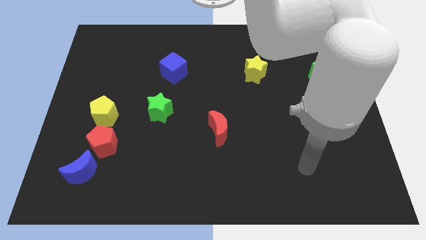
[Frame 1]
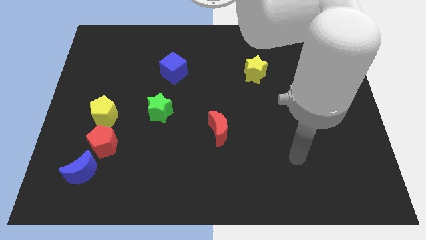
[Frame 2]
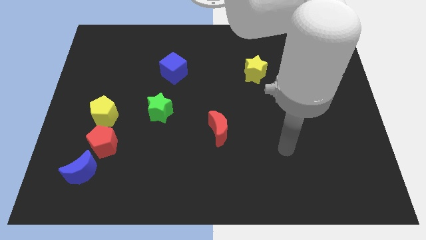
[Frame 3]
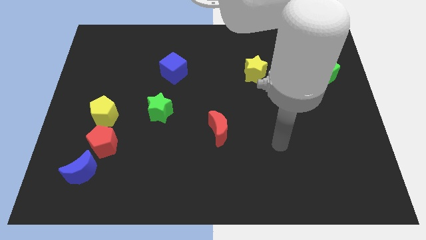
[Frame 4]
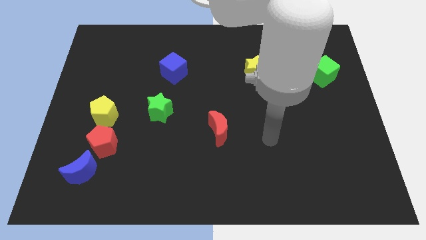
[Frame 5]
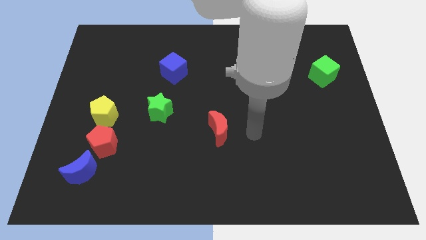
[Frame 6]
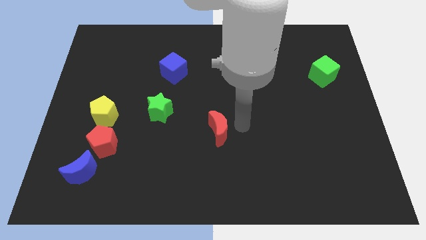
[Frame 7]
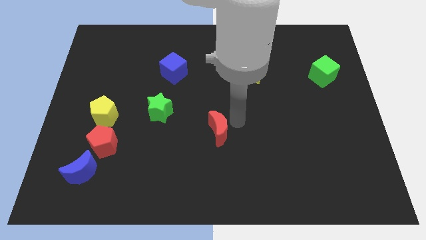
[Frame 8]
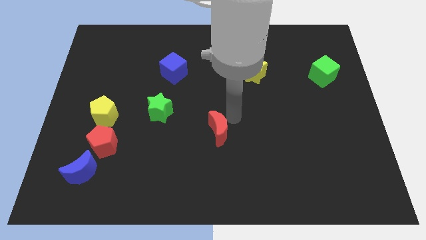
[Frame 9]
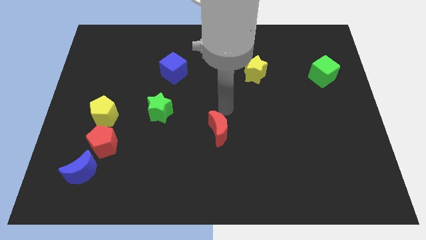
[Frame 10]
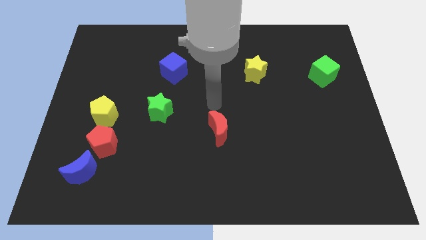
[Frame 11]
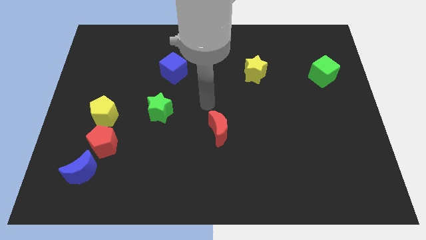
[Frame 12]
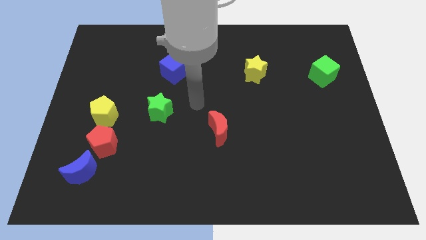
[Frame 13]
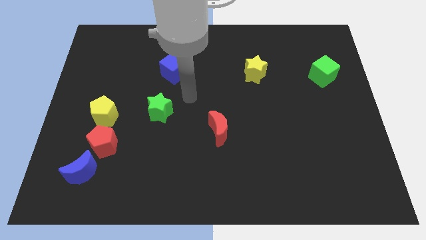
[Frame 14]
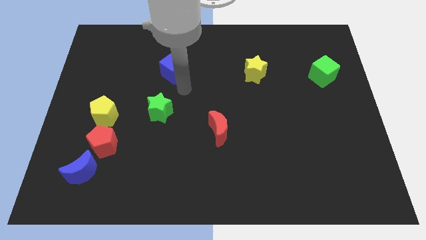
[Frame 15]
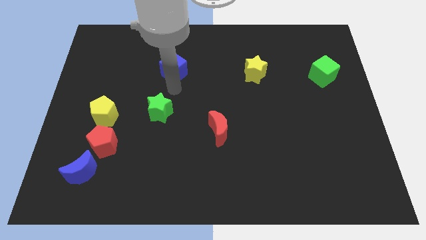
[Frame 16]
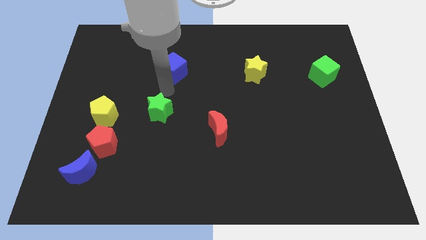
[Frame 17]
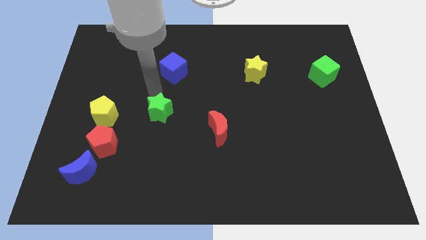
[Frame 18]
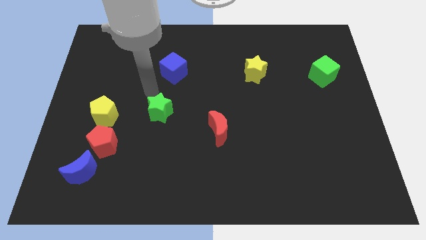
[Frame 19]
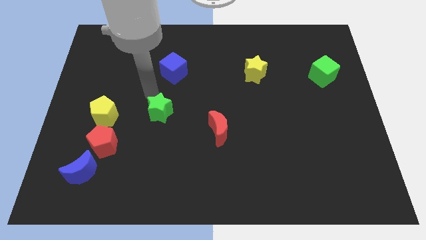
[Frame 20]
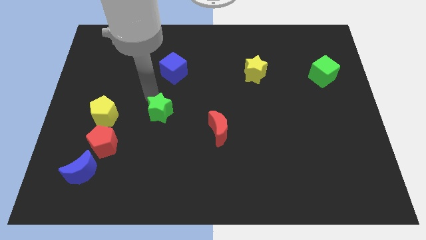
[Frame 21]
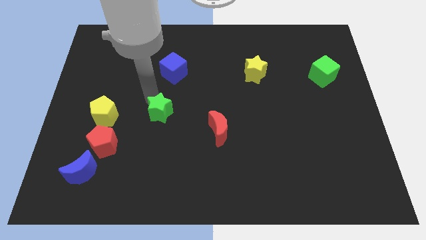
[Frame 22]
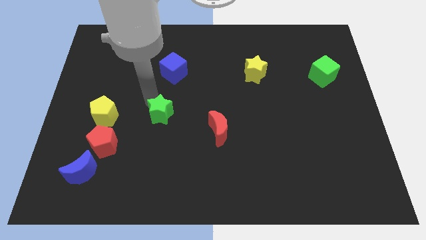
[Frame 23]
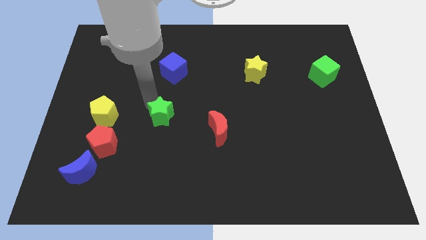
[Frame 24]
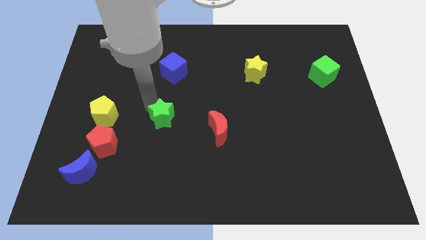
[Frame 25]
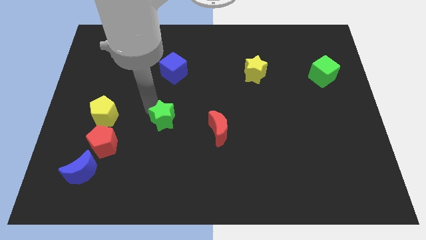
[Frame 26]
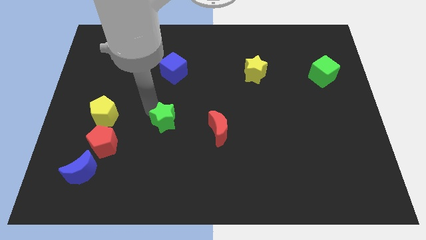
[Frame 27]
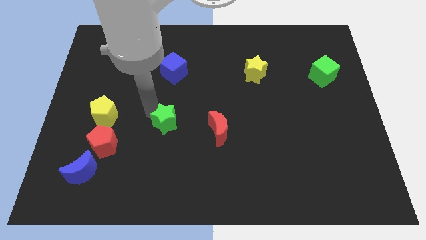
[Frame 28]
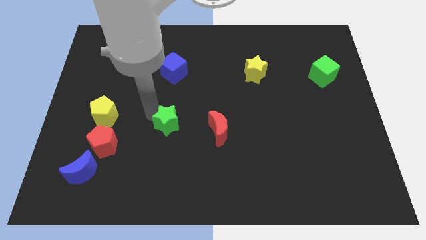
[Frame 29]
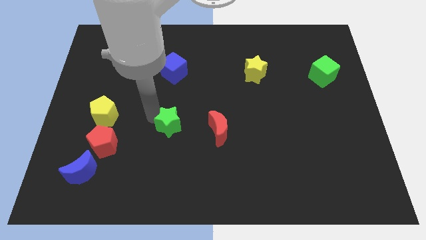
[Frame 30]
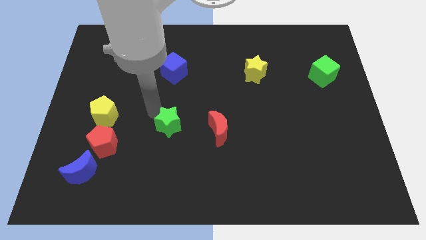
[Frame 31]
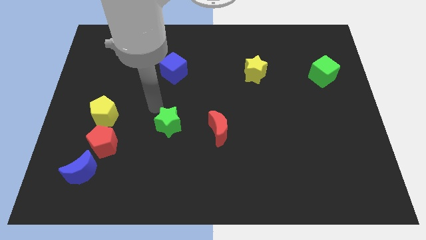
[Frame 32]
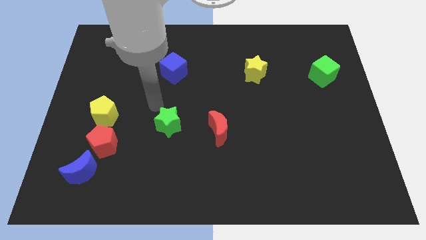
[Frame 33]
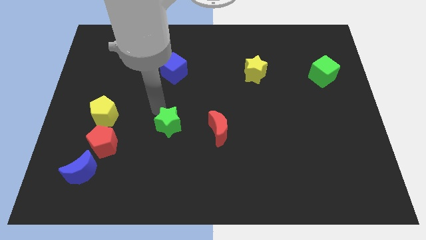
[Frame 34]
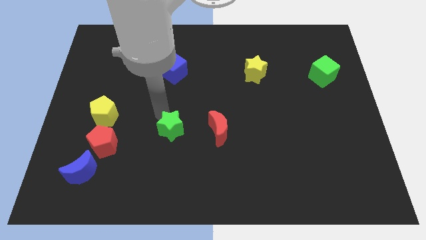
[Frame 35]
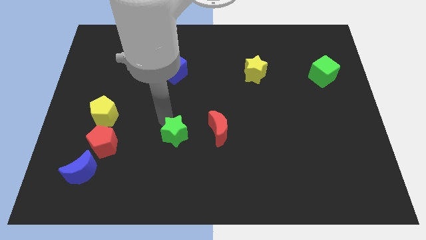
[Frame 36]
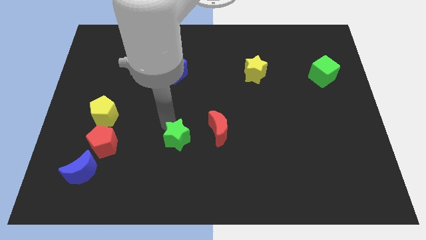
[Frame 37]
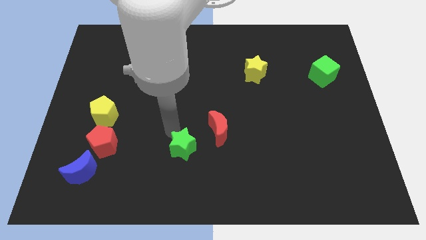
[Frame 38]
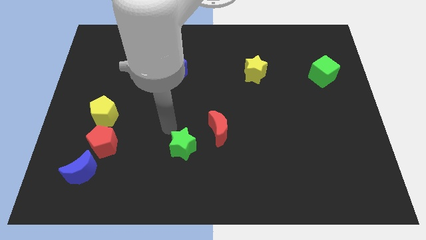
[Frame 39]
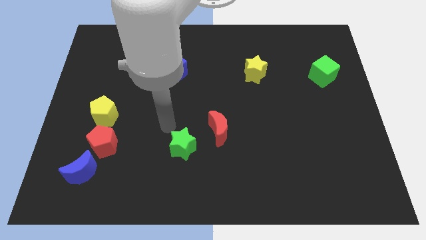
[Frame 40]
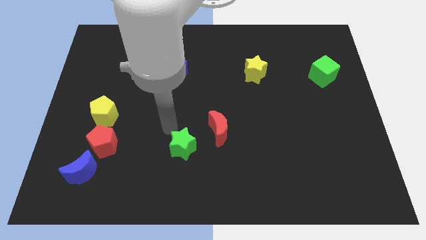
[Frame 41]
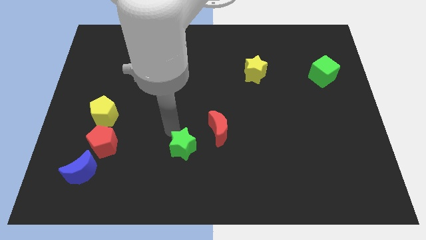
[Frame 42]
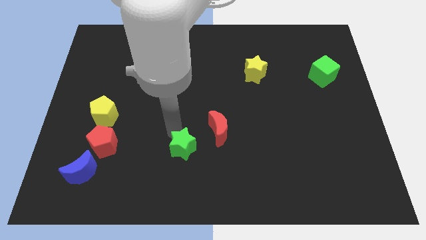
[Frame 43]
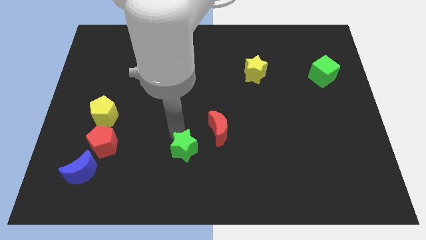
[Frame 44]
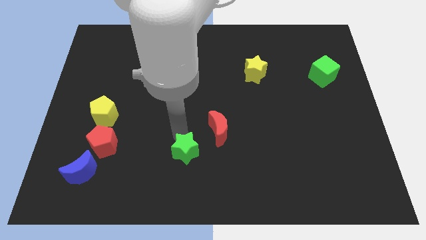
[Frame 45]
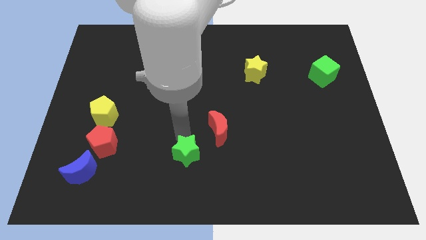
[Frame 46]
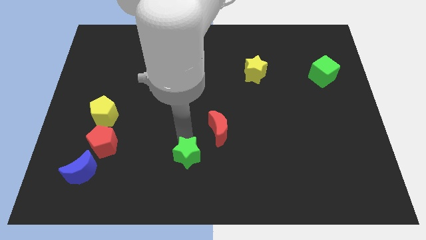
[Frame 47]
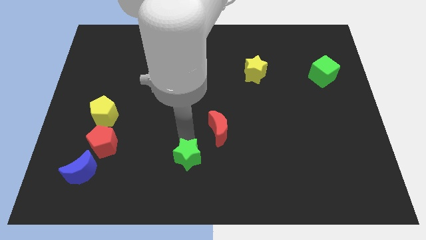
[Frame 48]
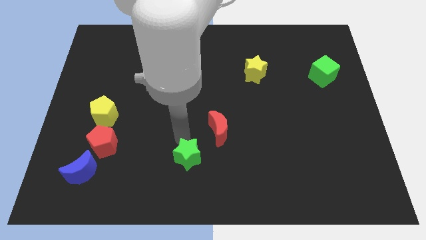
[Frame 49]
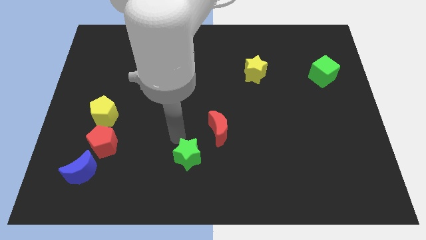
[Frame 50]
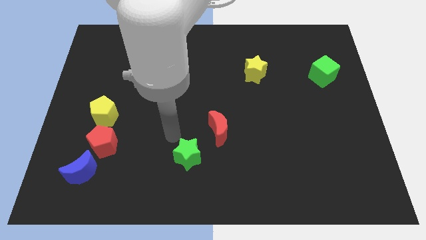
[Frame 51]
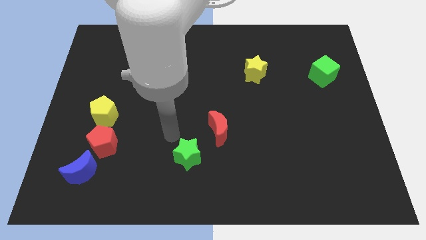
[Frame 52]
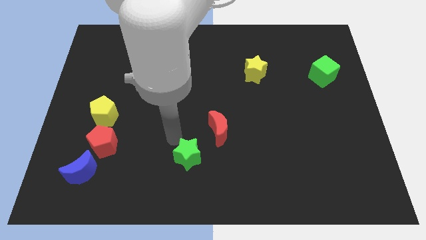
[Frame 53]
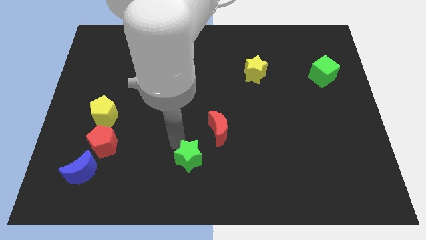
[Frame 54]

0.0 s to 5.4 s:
move the green star to the bottom side

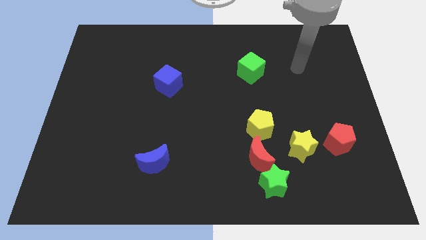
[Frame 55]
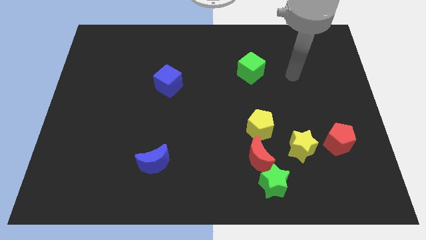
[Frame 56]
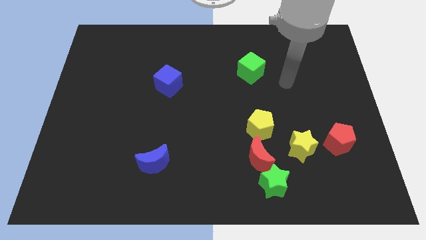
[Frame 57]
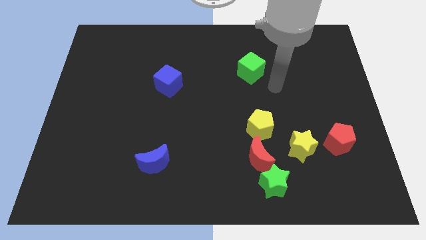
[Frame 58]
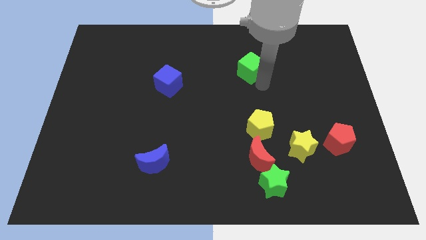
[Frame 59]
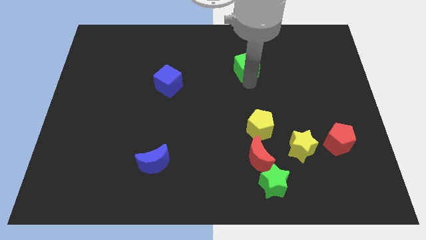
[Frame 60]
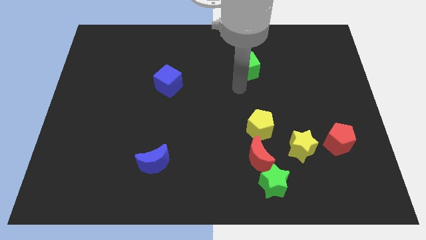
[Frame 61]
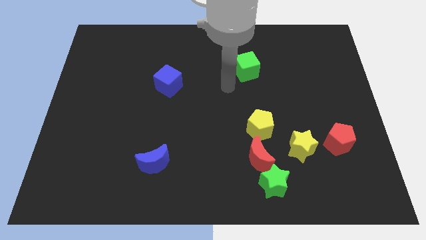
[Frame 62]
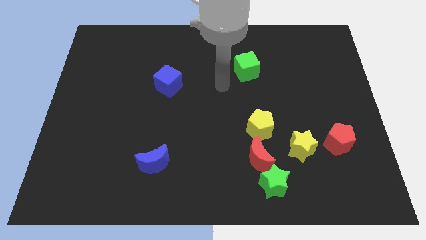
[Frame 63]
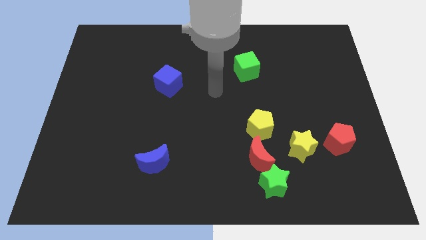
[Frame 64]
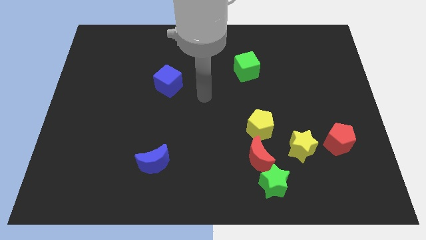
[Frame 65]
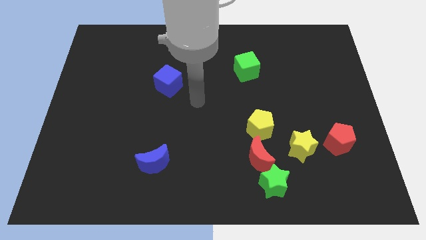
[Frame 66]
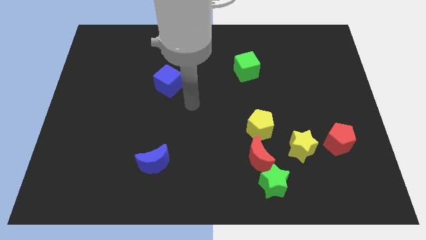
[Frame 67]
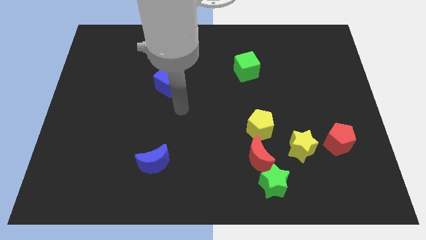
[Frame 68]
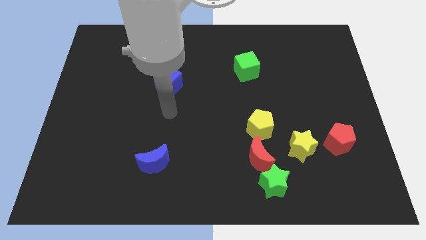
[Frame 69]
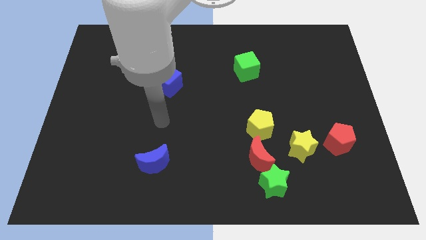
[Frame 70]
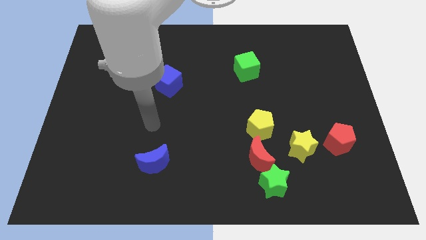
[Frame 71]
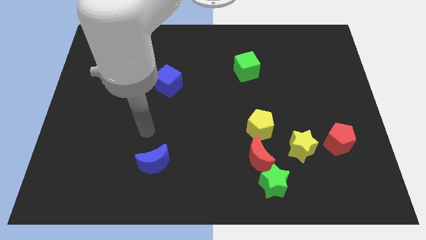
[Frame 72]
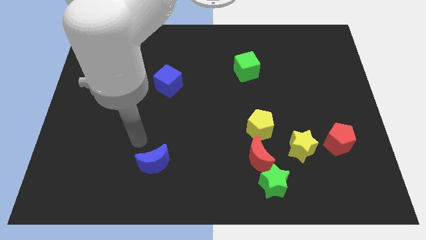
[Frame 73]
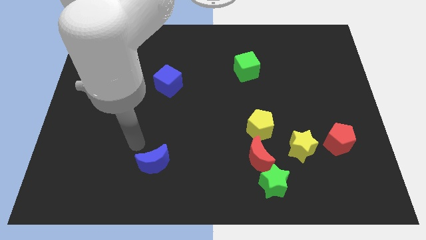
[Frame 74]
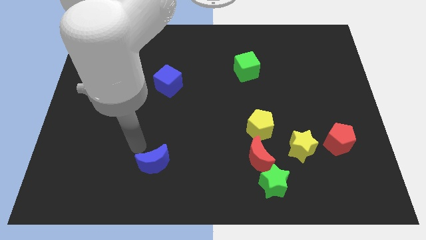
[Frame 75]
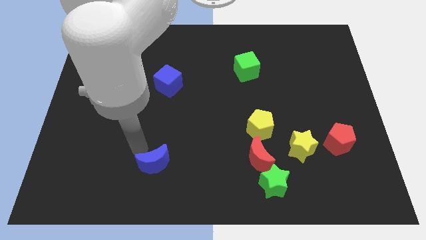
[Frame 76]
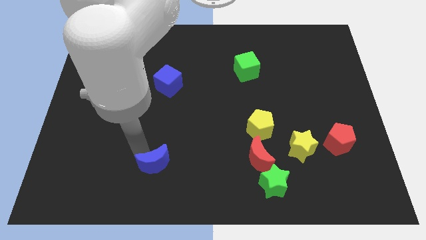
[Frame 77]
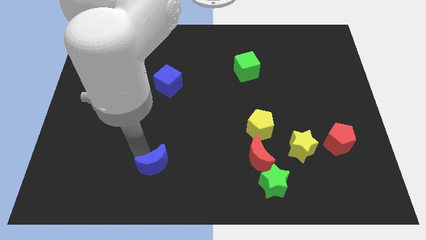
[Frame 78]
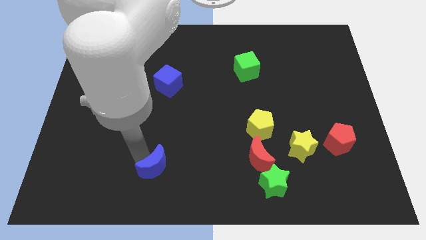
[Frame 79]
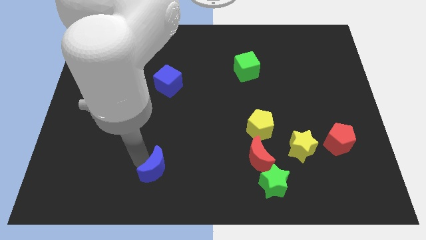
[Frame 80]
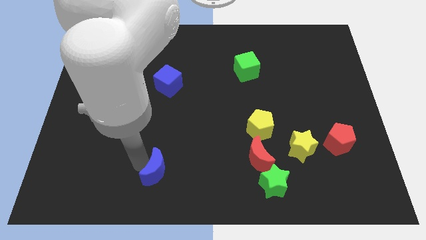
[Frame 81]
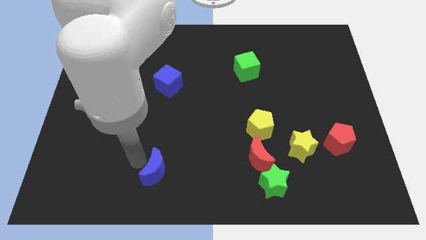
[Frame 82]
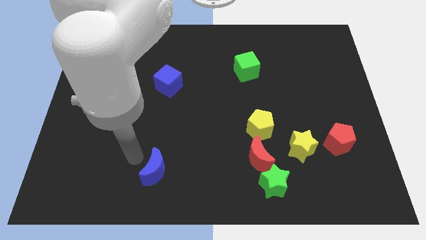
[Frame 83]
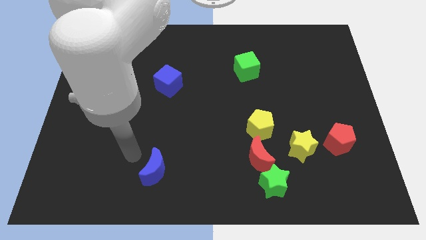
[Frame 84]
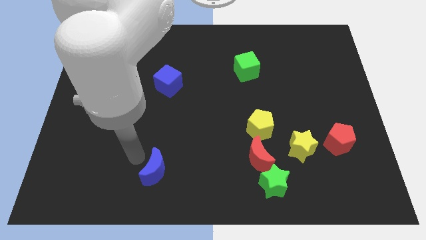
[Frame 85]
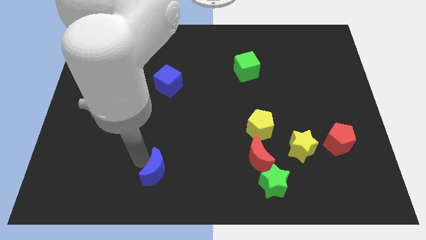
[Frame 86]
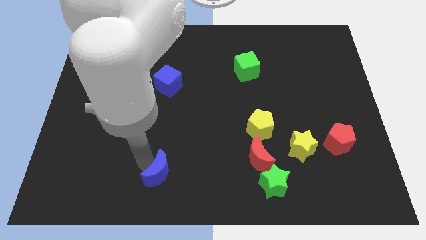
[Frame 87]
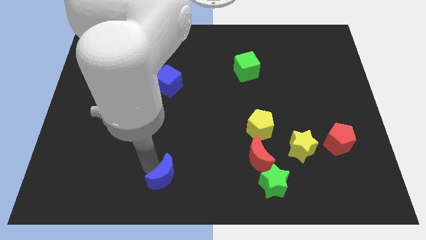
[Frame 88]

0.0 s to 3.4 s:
push the blue moon to the bottom side
